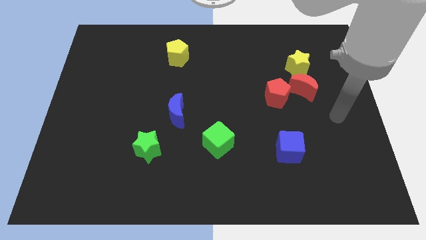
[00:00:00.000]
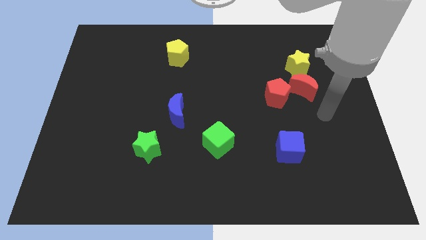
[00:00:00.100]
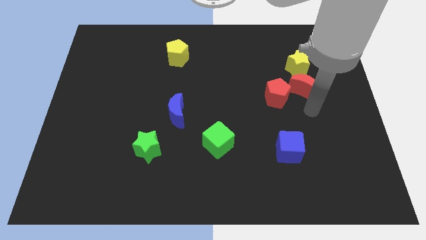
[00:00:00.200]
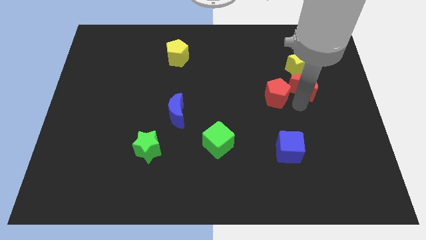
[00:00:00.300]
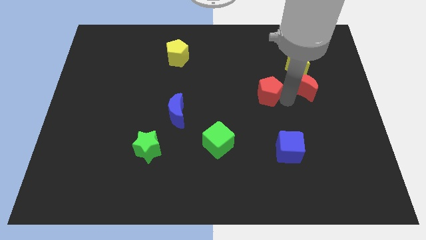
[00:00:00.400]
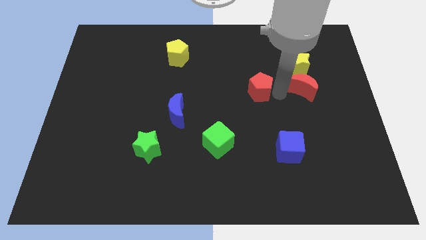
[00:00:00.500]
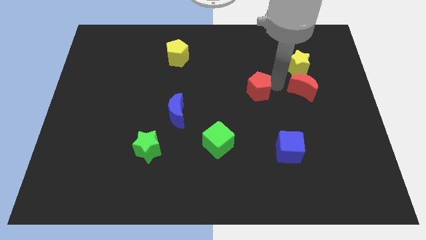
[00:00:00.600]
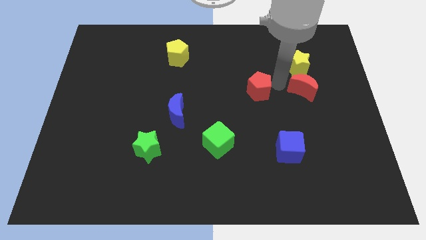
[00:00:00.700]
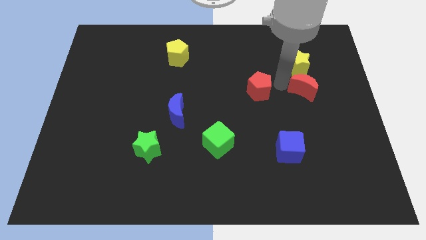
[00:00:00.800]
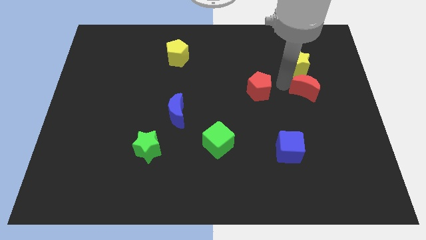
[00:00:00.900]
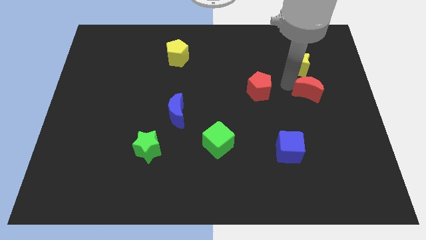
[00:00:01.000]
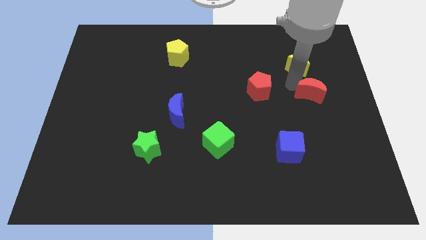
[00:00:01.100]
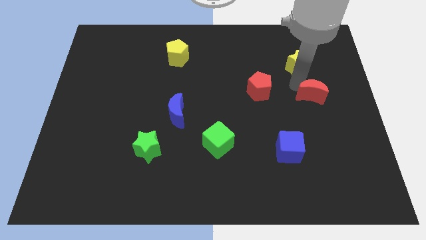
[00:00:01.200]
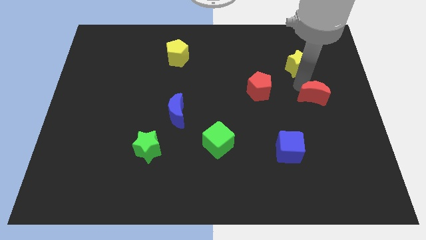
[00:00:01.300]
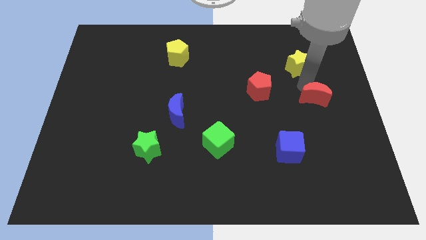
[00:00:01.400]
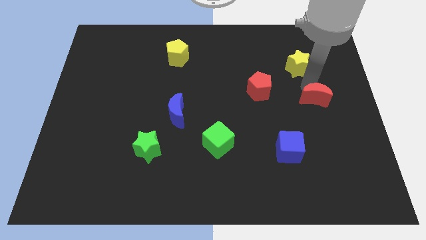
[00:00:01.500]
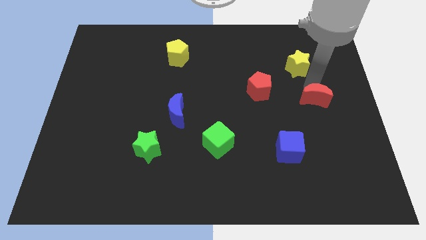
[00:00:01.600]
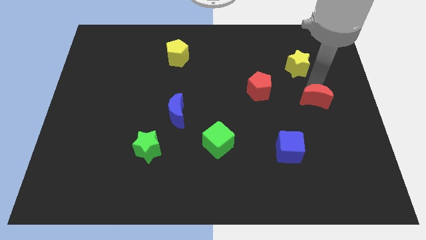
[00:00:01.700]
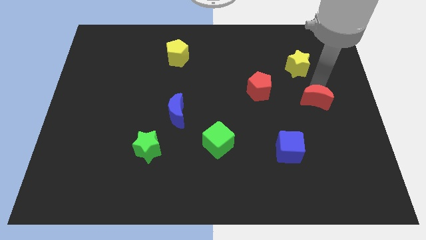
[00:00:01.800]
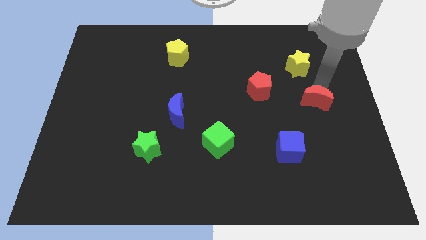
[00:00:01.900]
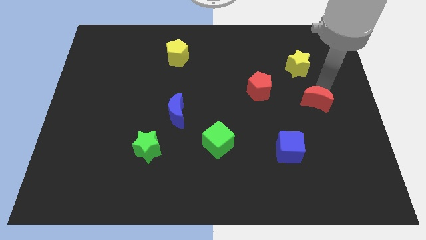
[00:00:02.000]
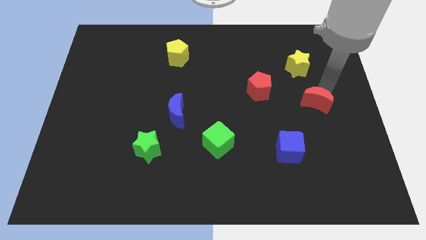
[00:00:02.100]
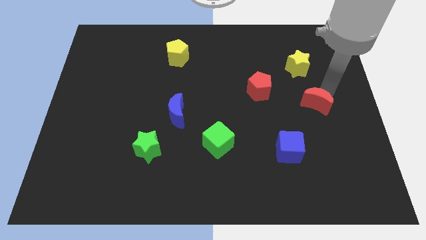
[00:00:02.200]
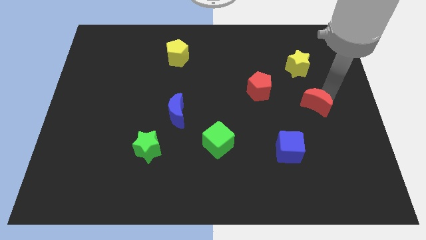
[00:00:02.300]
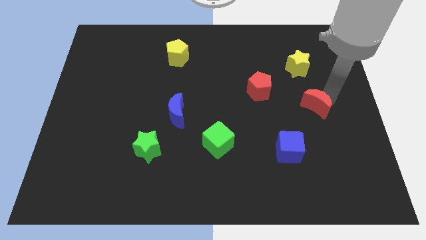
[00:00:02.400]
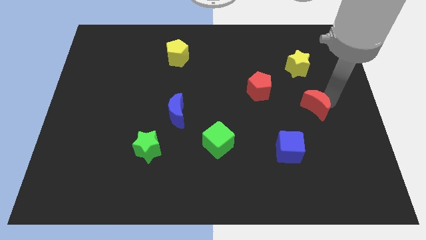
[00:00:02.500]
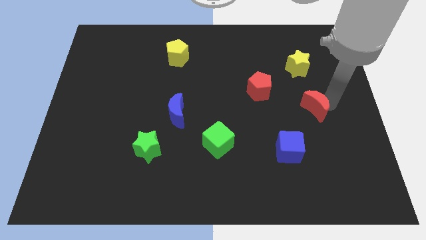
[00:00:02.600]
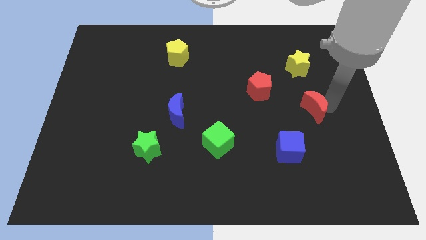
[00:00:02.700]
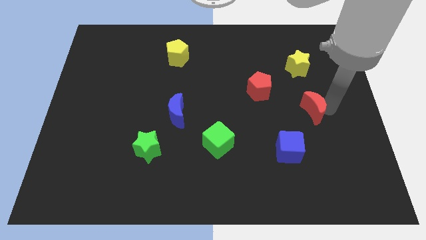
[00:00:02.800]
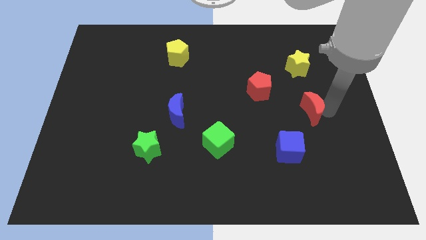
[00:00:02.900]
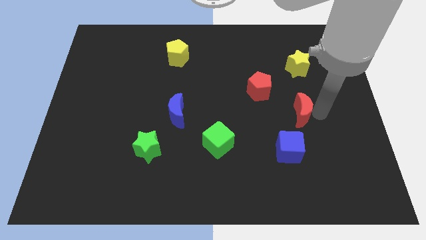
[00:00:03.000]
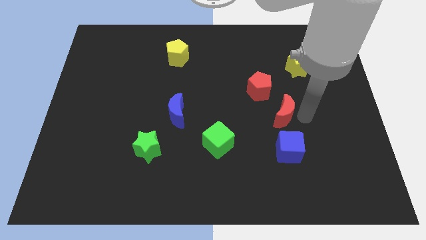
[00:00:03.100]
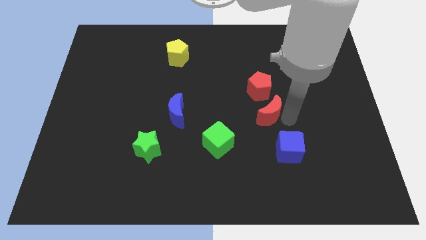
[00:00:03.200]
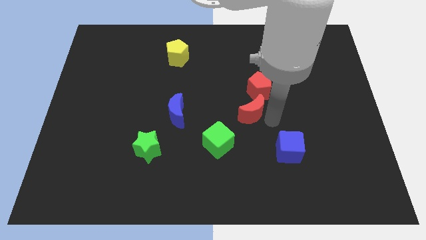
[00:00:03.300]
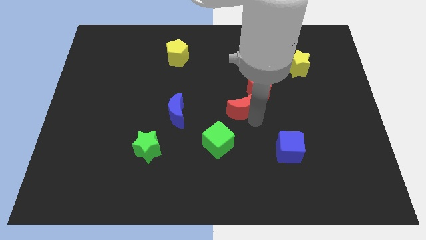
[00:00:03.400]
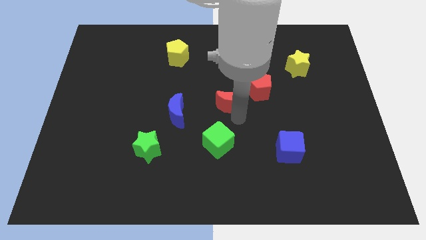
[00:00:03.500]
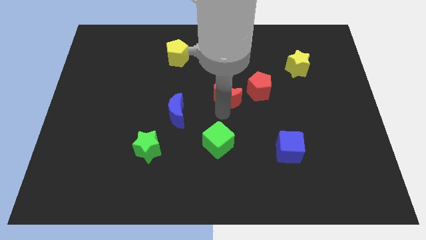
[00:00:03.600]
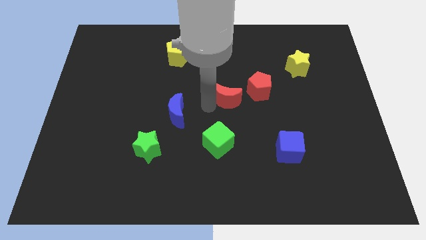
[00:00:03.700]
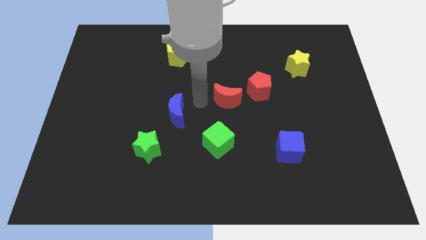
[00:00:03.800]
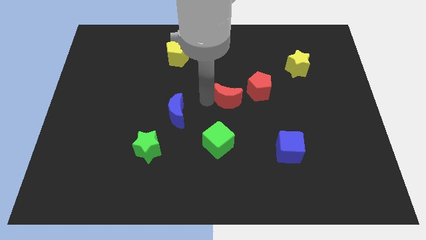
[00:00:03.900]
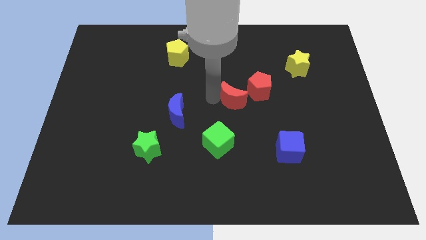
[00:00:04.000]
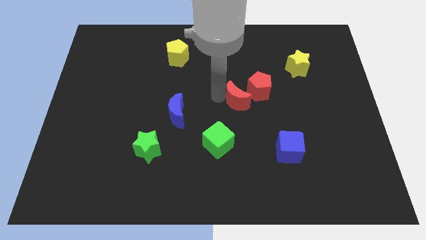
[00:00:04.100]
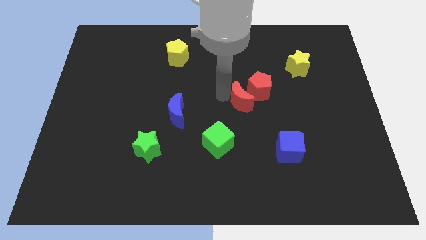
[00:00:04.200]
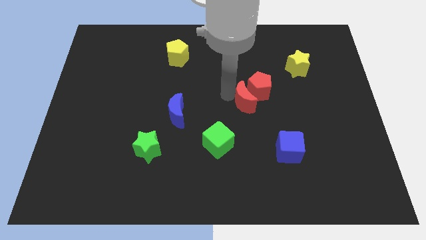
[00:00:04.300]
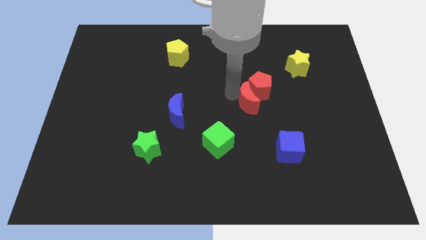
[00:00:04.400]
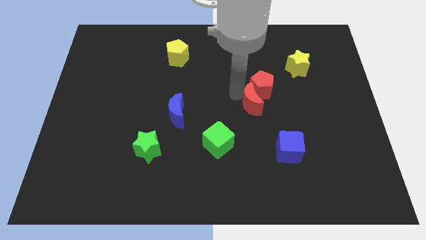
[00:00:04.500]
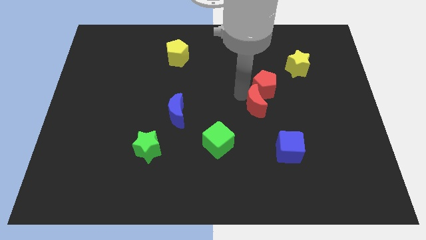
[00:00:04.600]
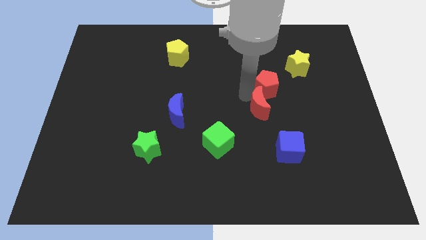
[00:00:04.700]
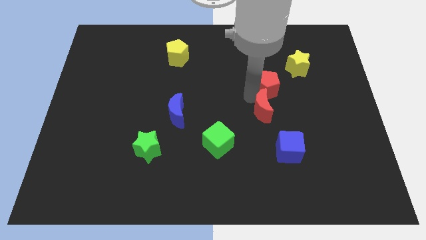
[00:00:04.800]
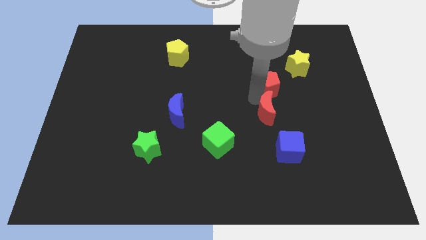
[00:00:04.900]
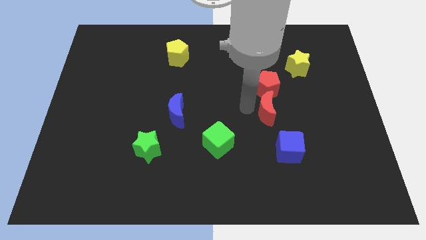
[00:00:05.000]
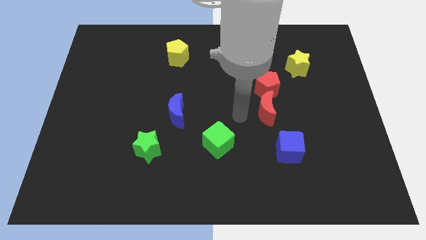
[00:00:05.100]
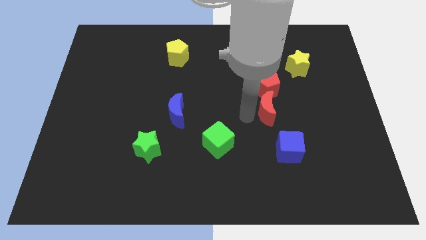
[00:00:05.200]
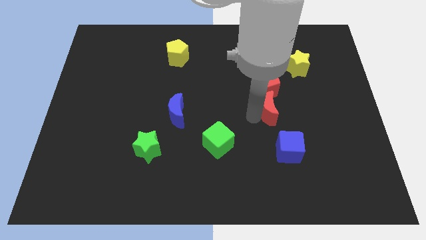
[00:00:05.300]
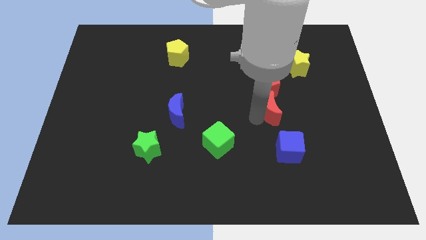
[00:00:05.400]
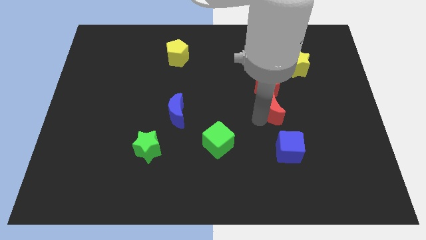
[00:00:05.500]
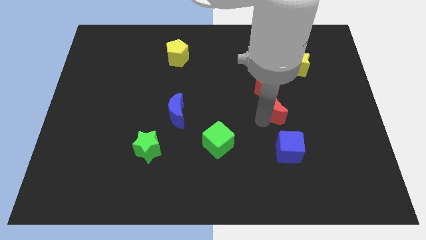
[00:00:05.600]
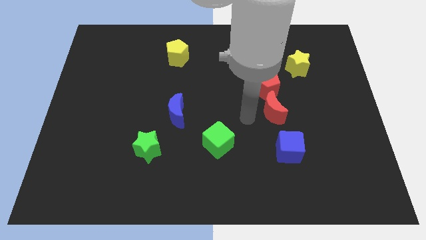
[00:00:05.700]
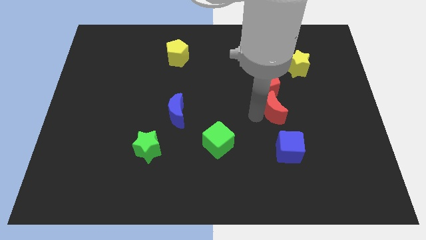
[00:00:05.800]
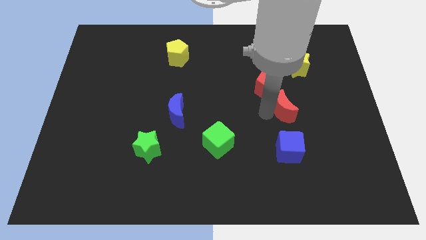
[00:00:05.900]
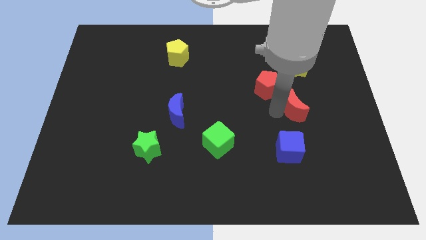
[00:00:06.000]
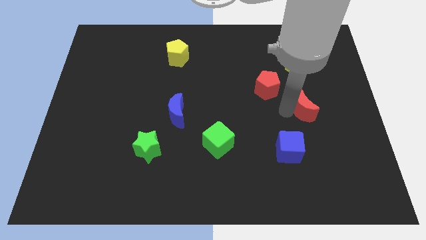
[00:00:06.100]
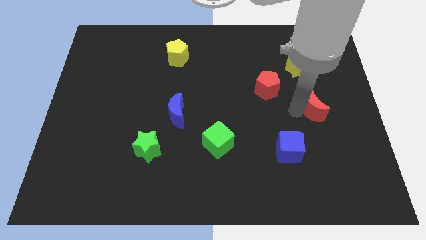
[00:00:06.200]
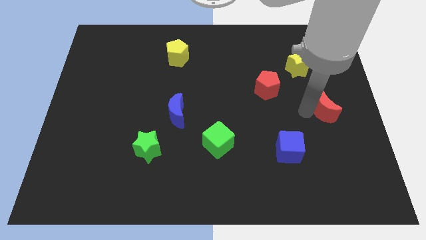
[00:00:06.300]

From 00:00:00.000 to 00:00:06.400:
move the red moon to the center right
